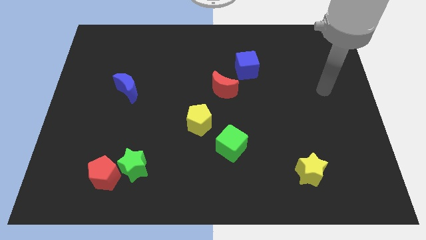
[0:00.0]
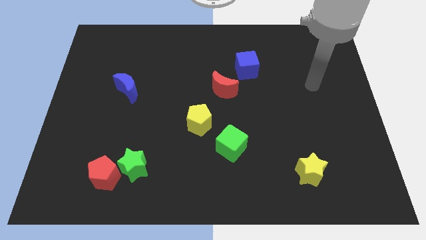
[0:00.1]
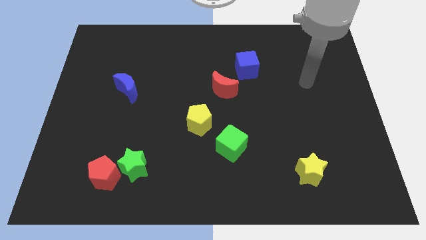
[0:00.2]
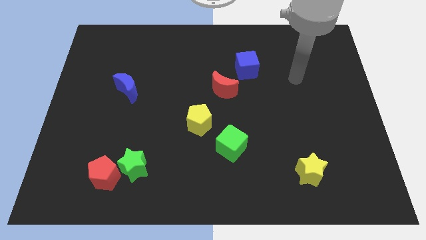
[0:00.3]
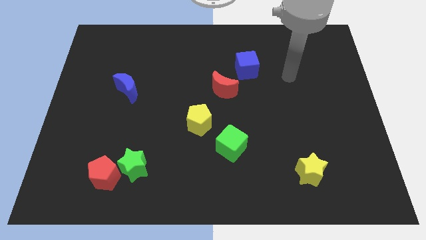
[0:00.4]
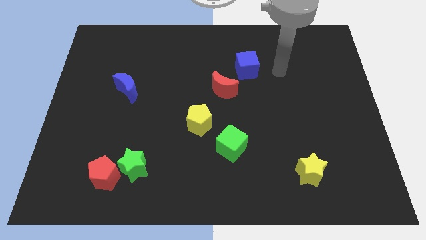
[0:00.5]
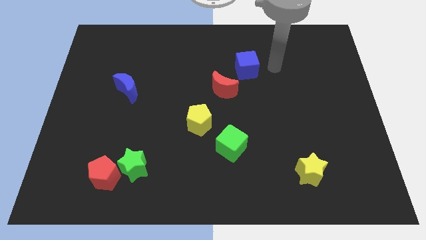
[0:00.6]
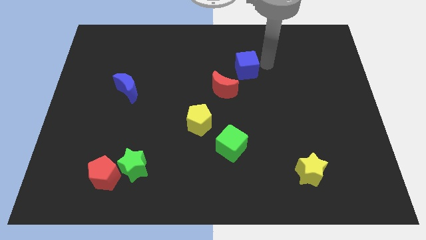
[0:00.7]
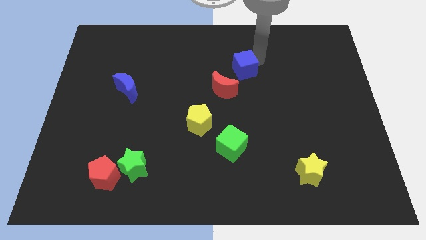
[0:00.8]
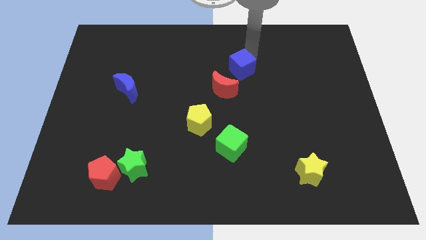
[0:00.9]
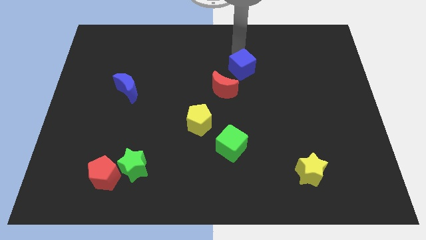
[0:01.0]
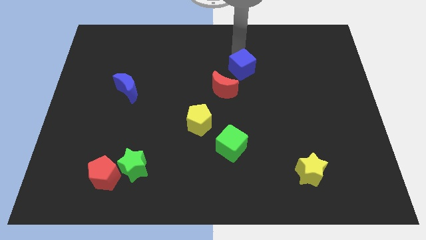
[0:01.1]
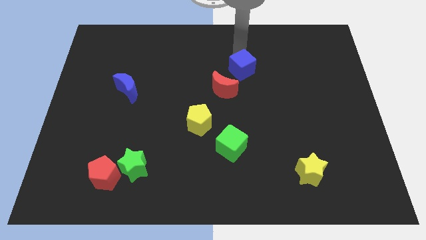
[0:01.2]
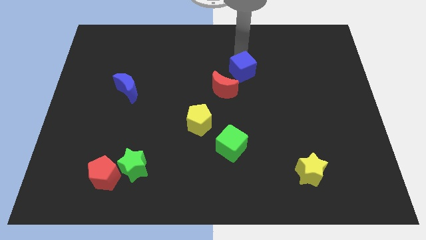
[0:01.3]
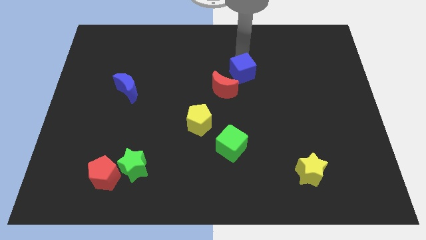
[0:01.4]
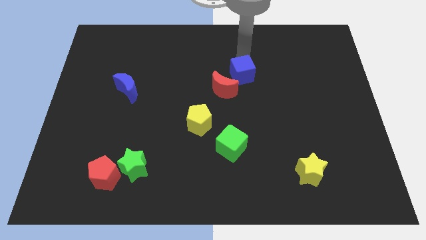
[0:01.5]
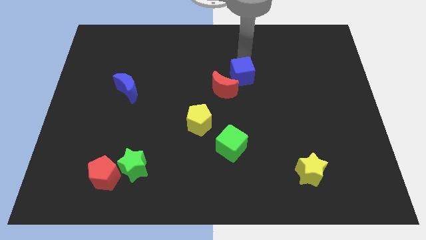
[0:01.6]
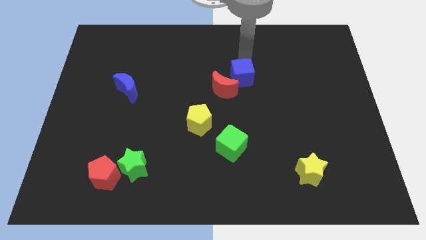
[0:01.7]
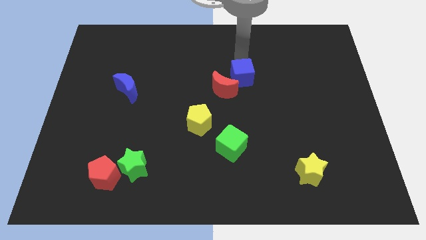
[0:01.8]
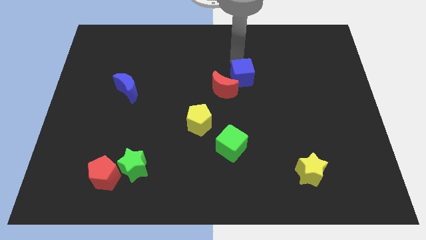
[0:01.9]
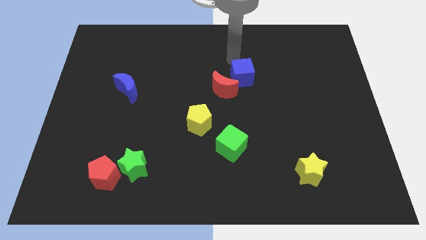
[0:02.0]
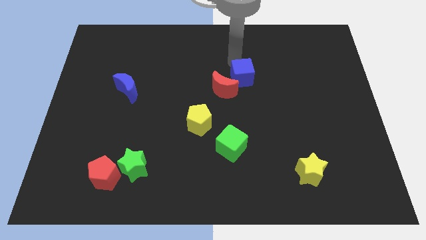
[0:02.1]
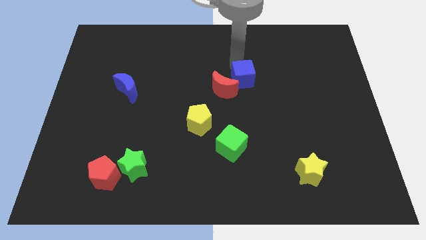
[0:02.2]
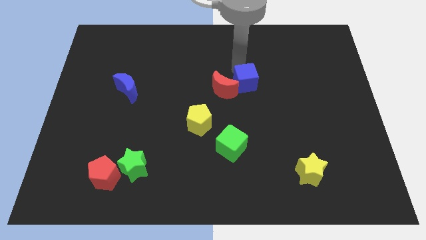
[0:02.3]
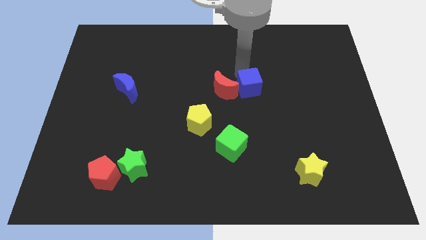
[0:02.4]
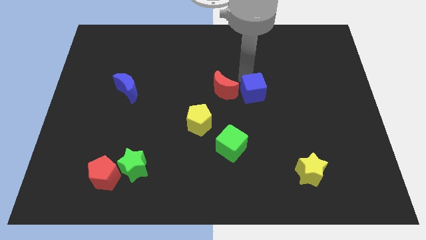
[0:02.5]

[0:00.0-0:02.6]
move the blue cube a little down

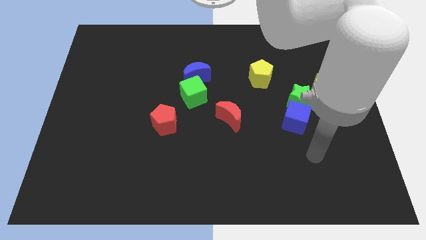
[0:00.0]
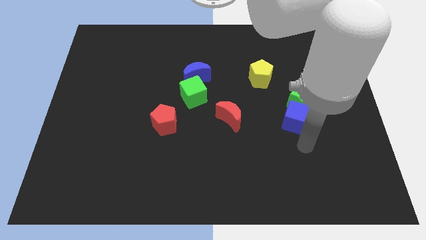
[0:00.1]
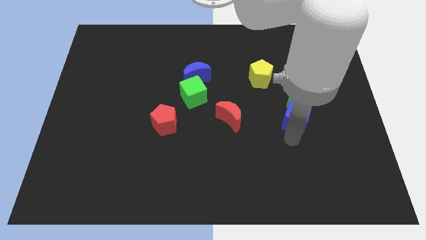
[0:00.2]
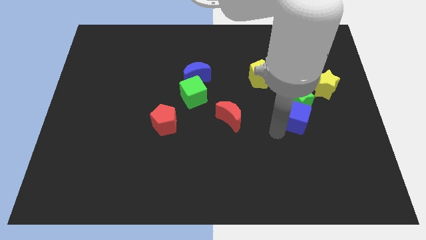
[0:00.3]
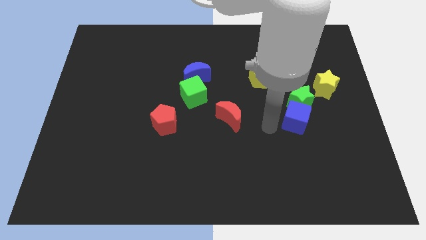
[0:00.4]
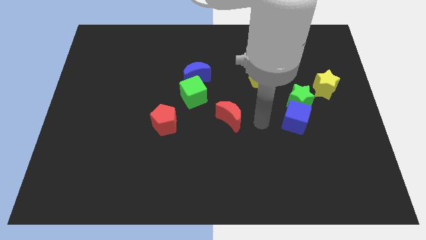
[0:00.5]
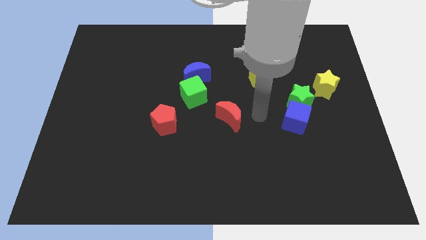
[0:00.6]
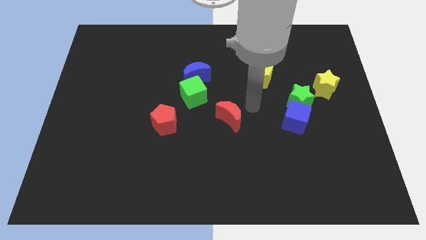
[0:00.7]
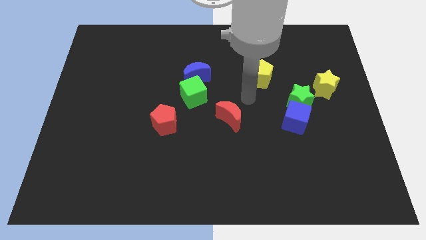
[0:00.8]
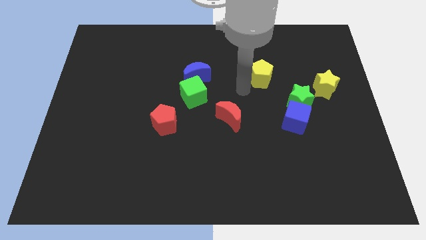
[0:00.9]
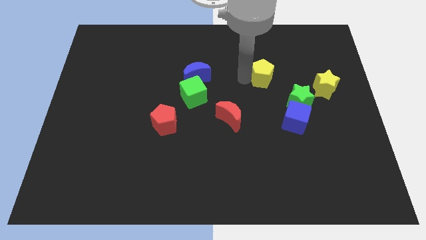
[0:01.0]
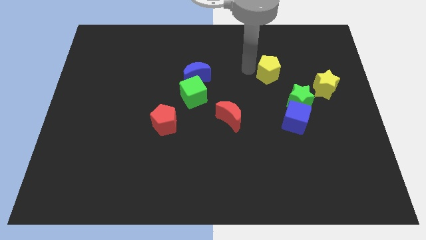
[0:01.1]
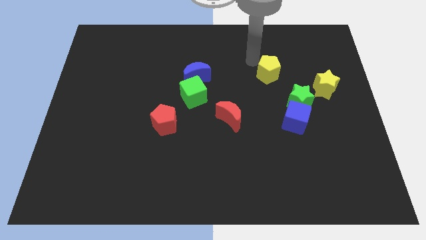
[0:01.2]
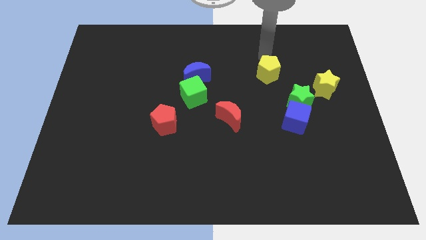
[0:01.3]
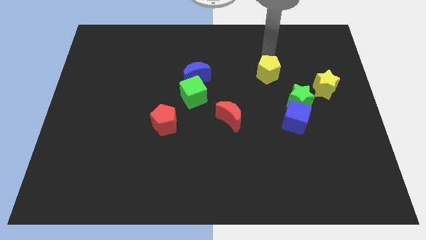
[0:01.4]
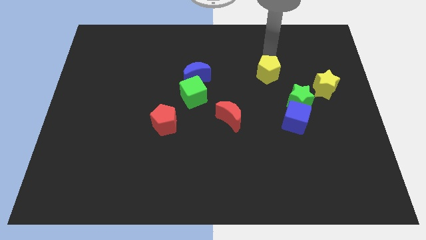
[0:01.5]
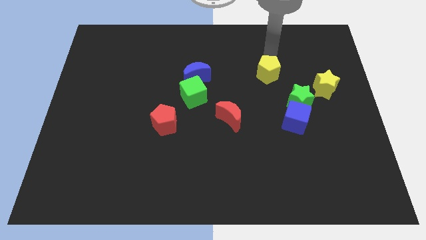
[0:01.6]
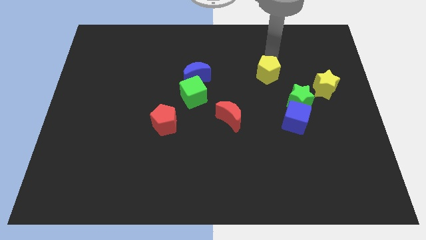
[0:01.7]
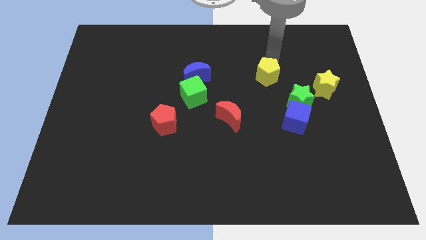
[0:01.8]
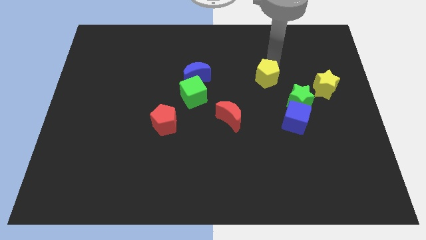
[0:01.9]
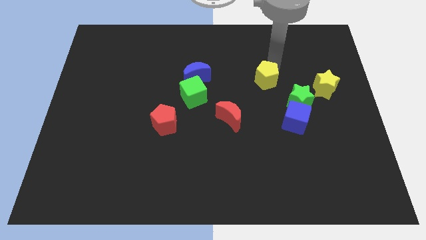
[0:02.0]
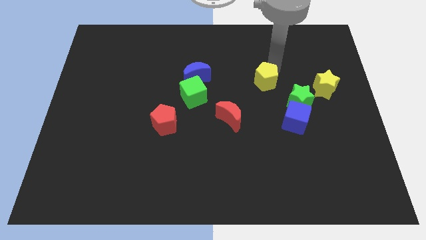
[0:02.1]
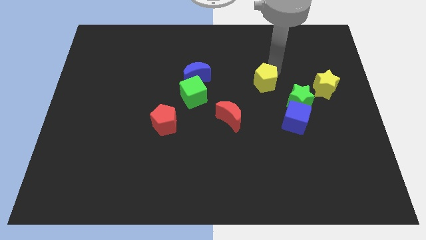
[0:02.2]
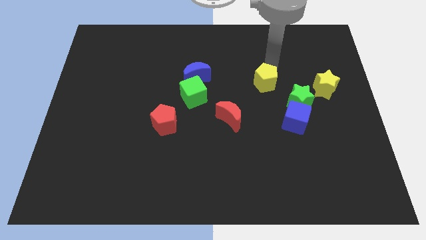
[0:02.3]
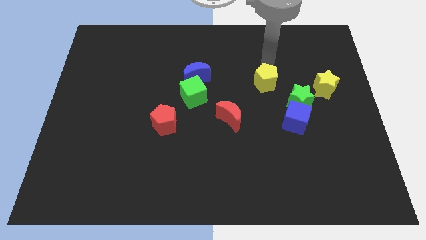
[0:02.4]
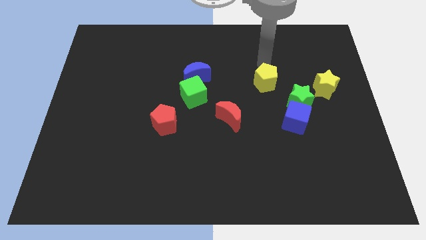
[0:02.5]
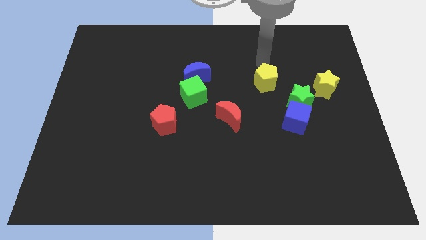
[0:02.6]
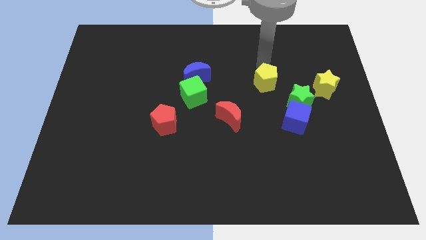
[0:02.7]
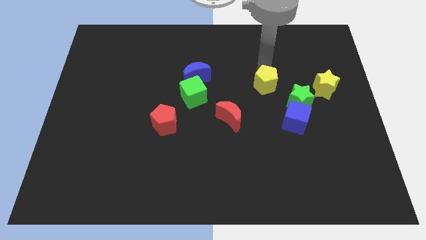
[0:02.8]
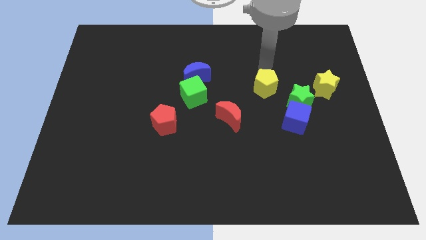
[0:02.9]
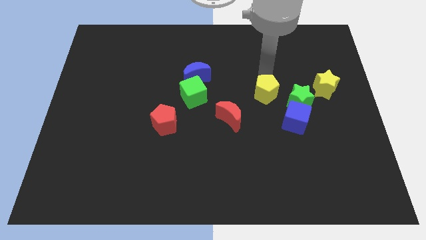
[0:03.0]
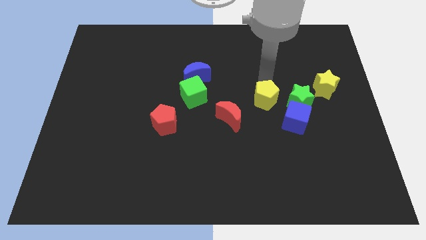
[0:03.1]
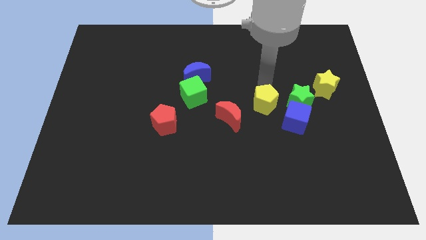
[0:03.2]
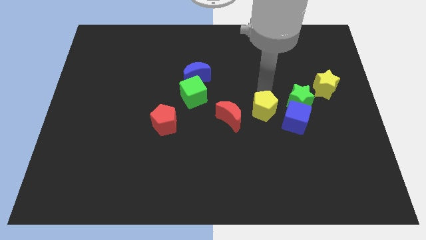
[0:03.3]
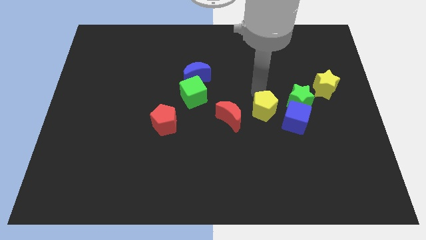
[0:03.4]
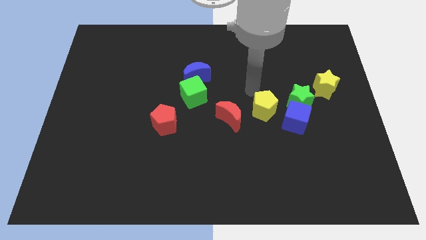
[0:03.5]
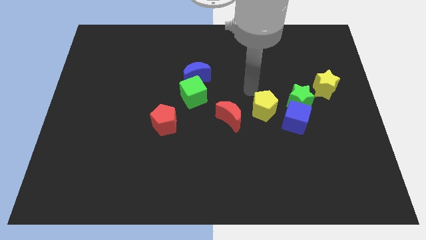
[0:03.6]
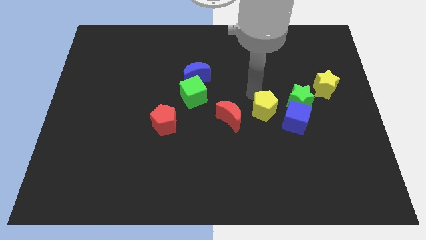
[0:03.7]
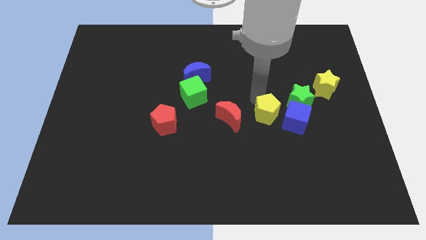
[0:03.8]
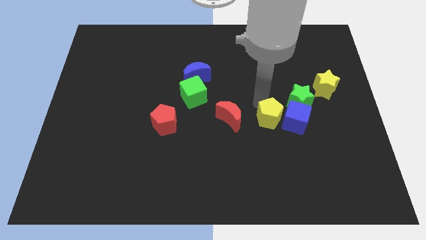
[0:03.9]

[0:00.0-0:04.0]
slightly push the yellow pentagon diagonally down and right

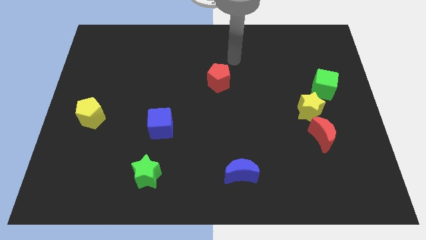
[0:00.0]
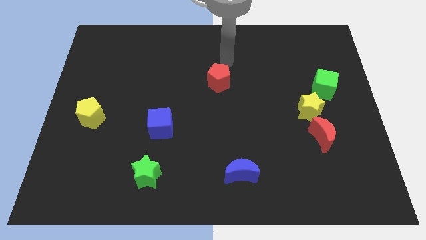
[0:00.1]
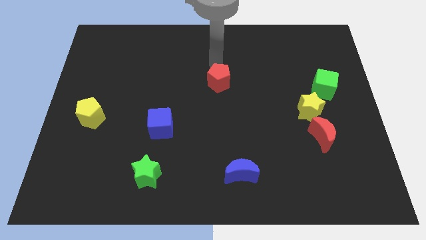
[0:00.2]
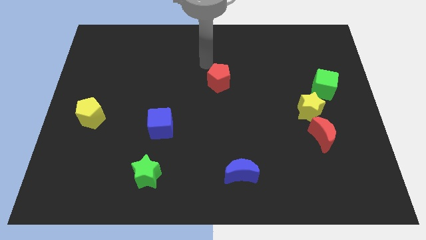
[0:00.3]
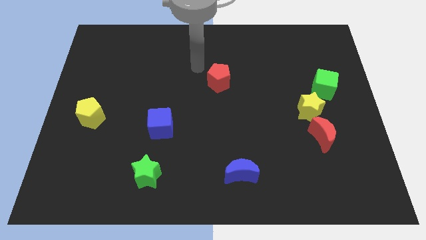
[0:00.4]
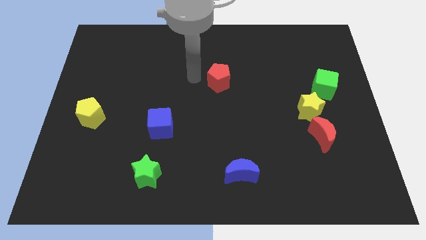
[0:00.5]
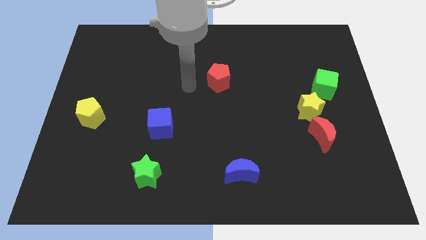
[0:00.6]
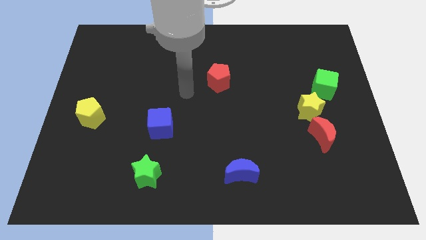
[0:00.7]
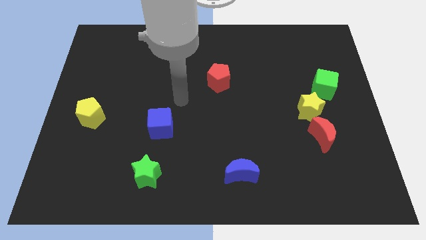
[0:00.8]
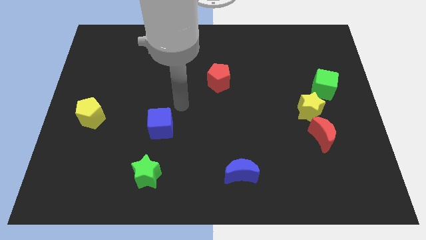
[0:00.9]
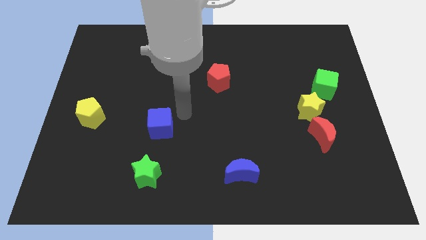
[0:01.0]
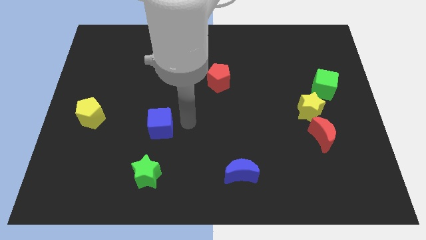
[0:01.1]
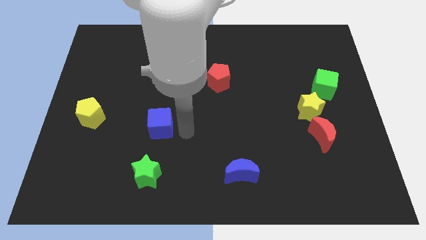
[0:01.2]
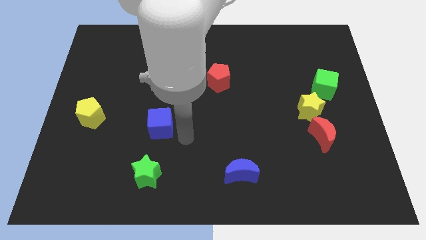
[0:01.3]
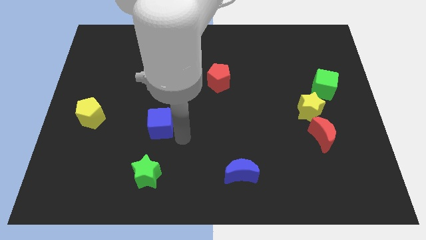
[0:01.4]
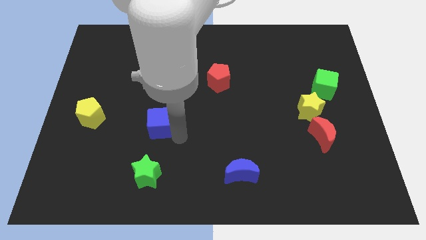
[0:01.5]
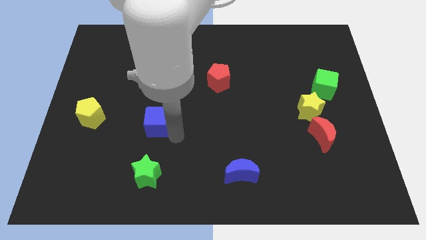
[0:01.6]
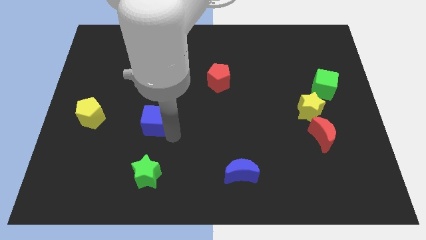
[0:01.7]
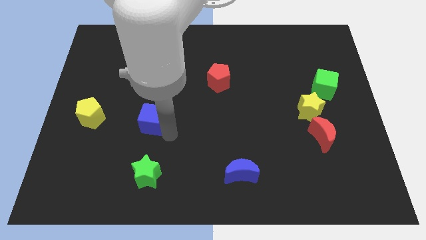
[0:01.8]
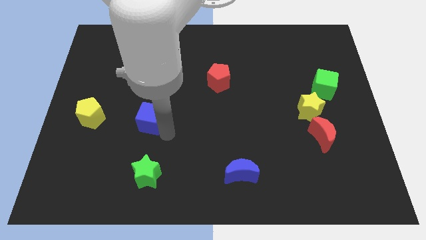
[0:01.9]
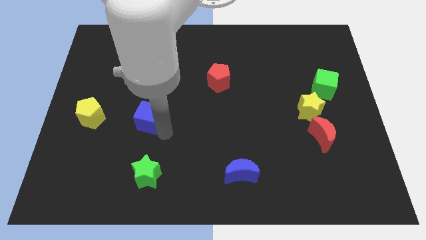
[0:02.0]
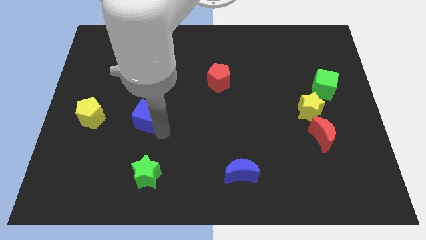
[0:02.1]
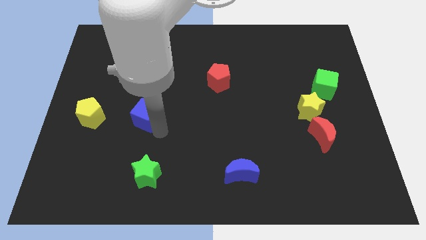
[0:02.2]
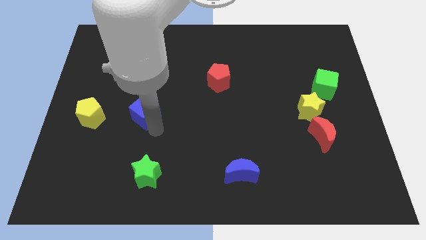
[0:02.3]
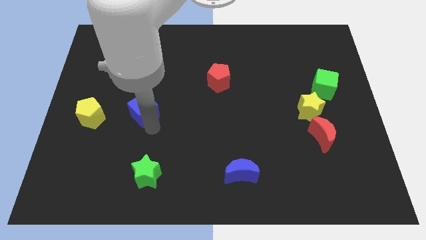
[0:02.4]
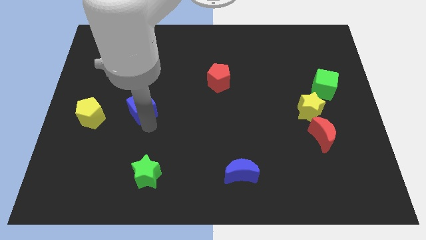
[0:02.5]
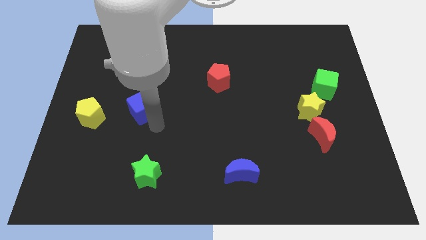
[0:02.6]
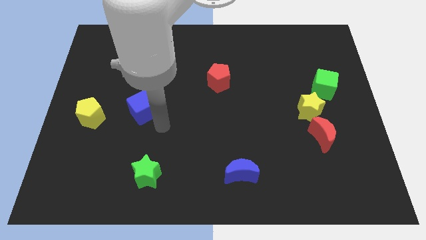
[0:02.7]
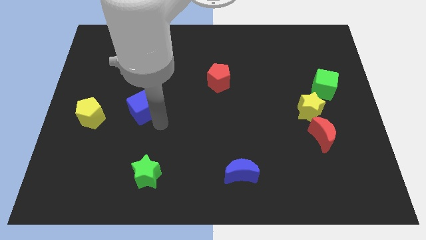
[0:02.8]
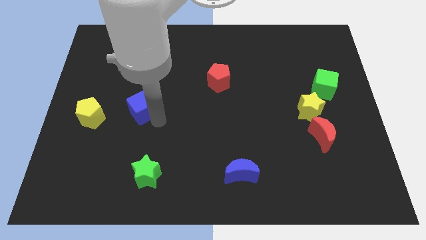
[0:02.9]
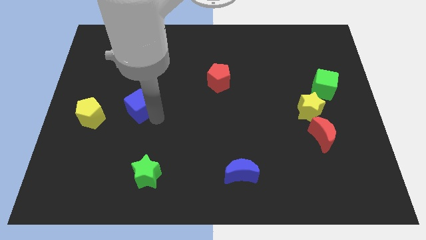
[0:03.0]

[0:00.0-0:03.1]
move the blue cube slightly up and left diagonally
